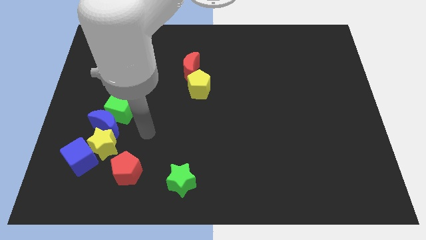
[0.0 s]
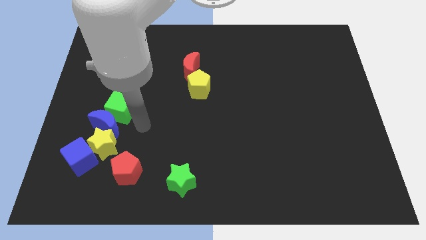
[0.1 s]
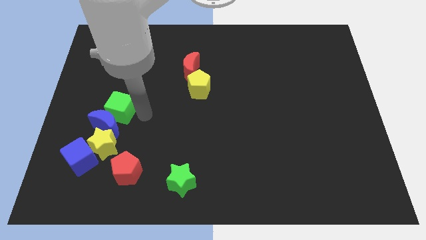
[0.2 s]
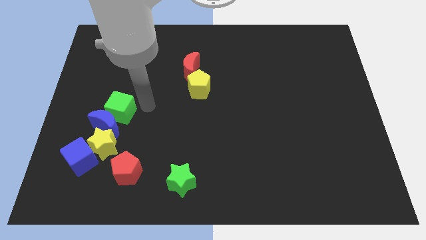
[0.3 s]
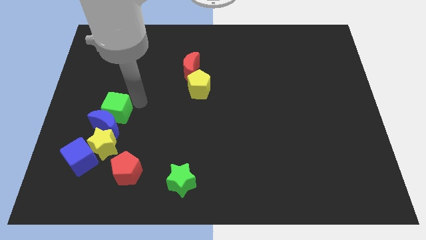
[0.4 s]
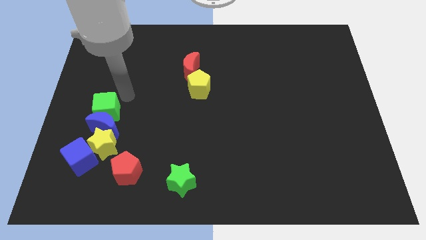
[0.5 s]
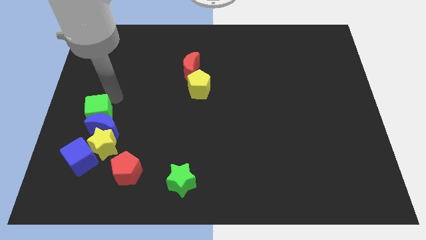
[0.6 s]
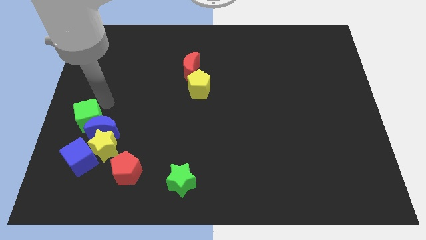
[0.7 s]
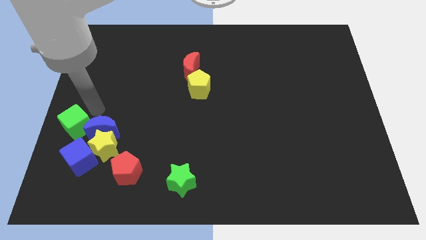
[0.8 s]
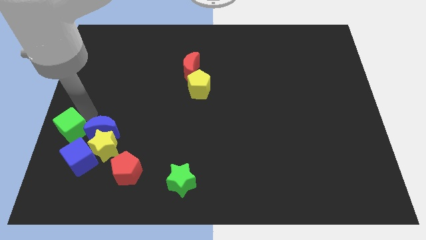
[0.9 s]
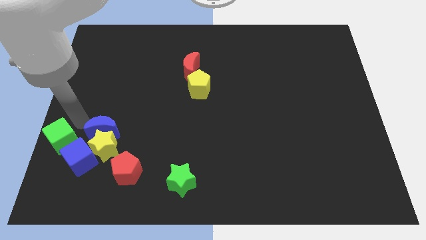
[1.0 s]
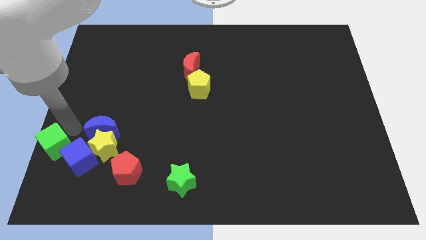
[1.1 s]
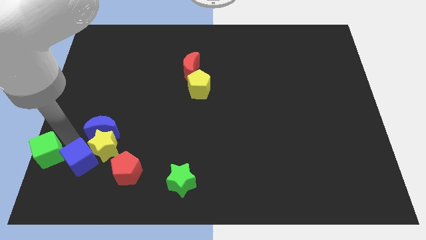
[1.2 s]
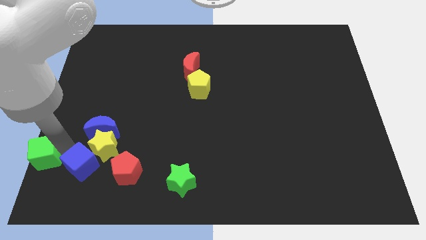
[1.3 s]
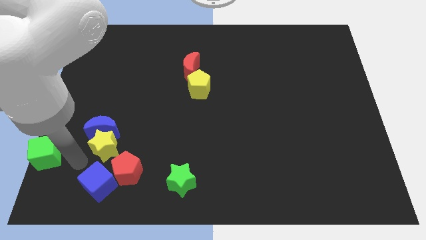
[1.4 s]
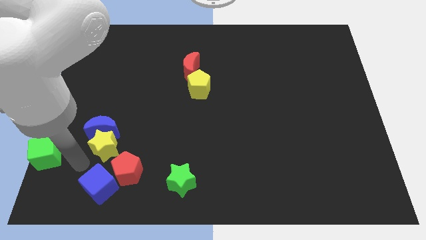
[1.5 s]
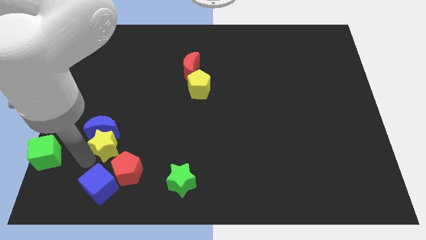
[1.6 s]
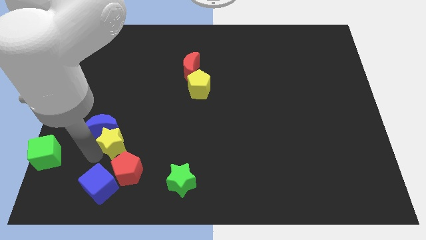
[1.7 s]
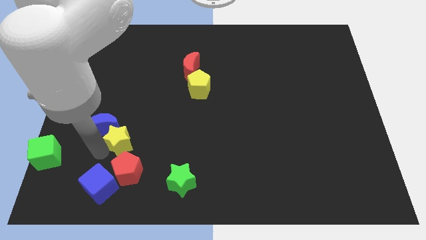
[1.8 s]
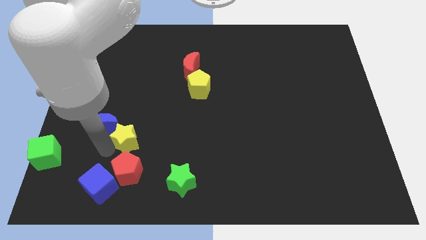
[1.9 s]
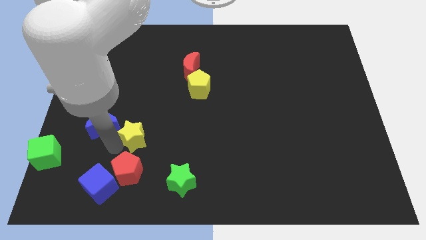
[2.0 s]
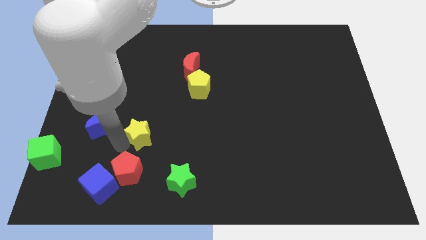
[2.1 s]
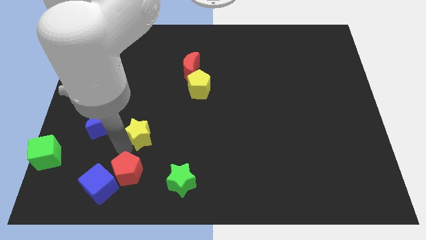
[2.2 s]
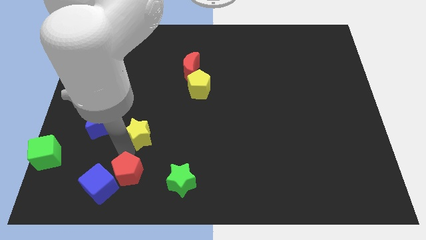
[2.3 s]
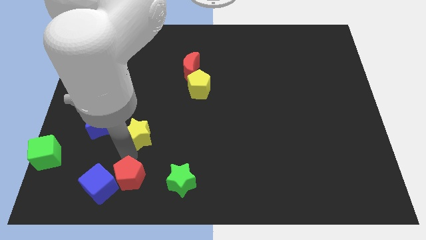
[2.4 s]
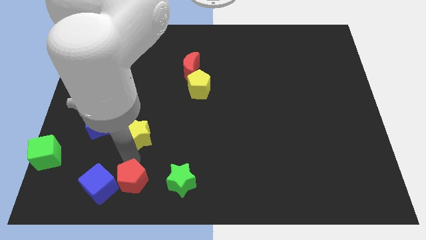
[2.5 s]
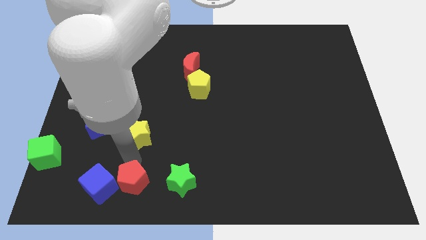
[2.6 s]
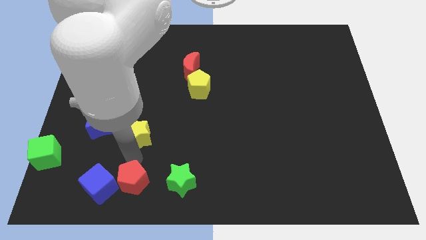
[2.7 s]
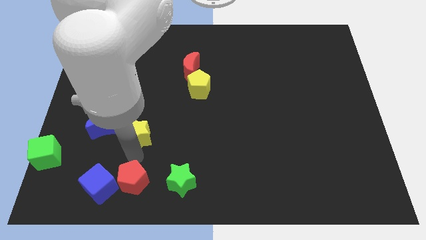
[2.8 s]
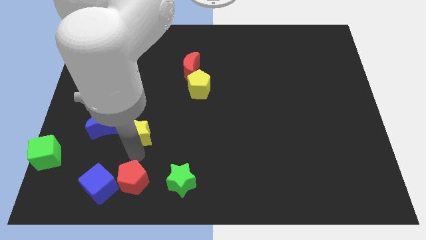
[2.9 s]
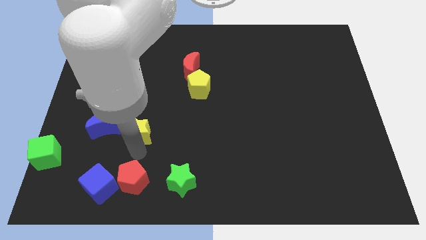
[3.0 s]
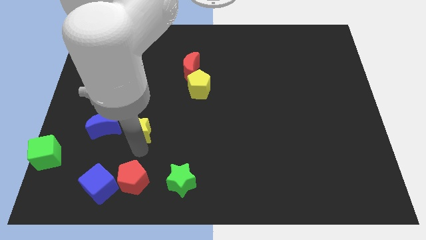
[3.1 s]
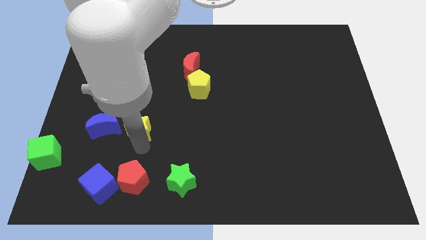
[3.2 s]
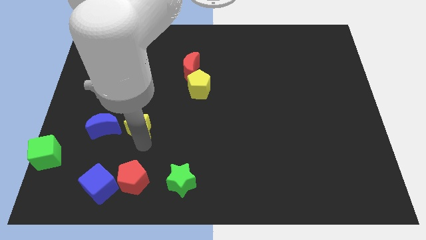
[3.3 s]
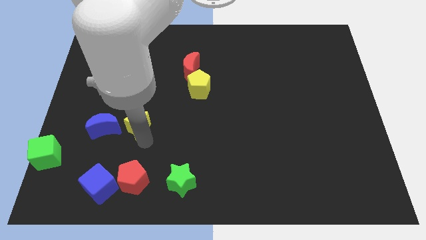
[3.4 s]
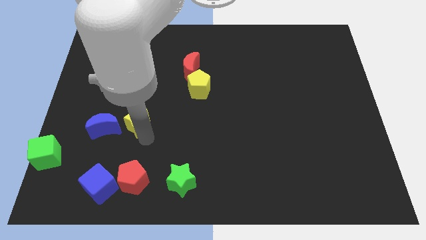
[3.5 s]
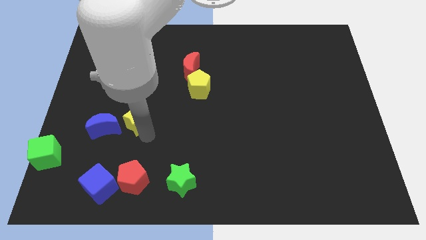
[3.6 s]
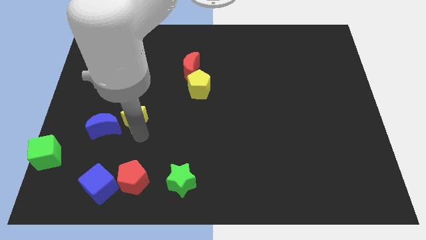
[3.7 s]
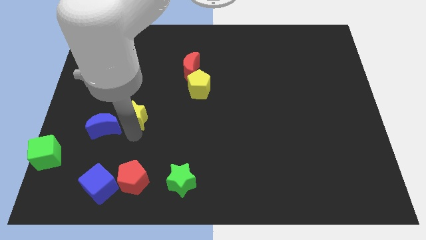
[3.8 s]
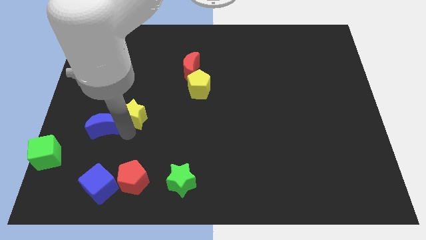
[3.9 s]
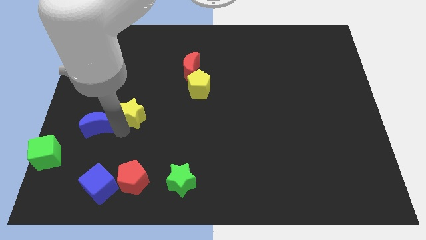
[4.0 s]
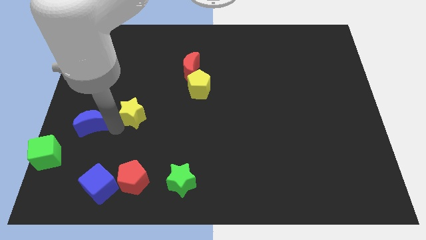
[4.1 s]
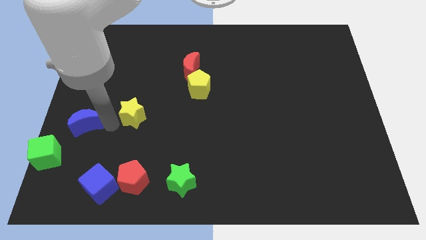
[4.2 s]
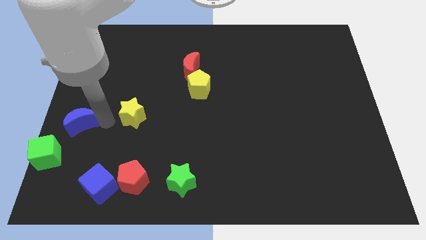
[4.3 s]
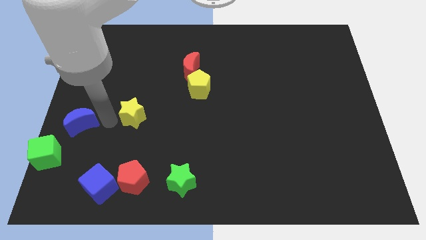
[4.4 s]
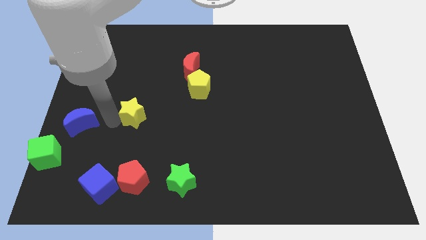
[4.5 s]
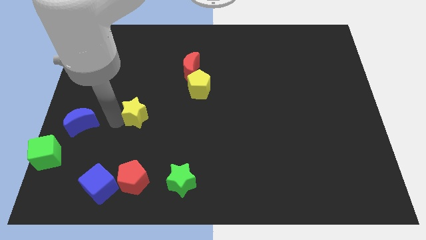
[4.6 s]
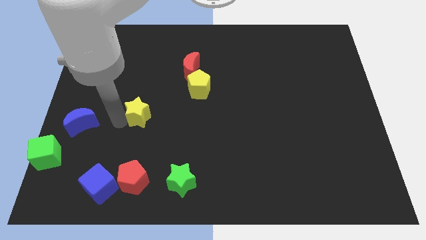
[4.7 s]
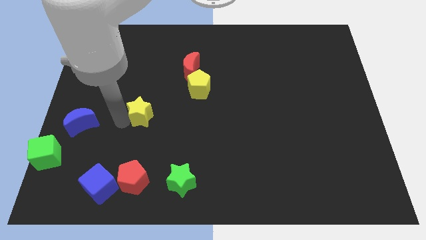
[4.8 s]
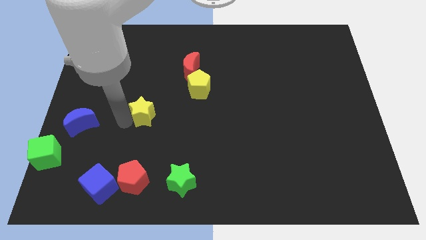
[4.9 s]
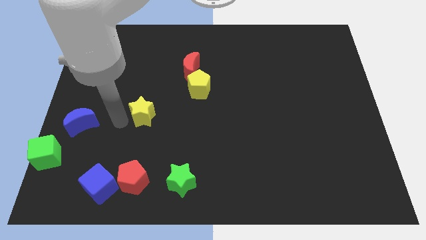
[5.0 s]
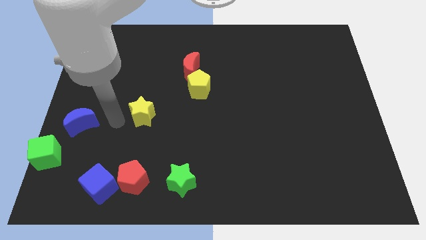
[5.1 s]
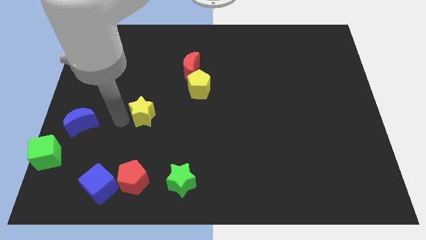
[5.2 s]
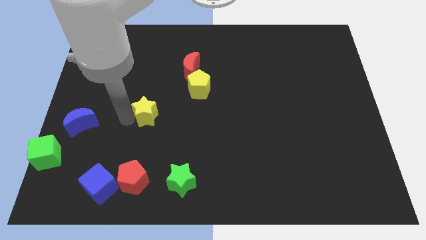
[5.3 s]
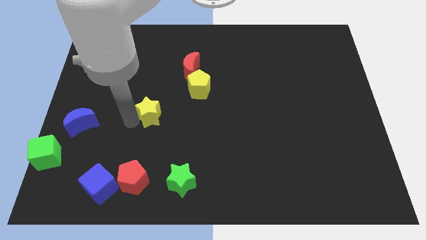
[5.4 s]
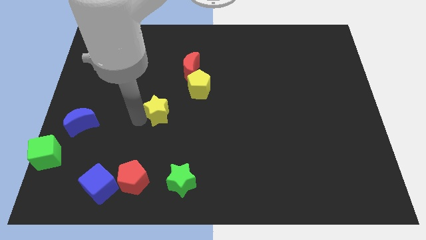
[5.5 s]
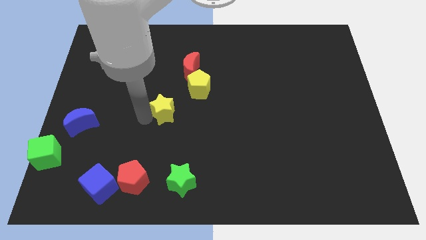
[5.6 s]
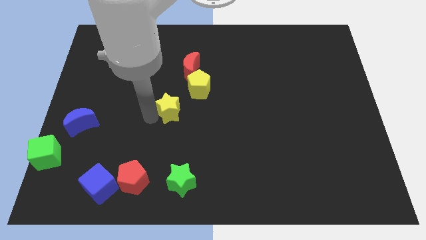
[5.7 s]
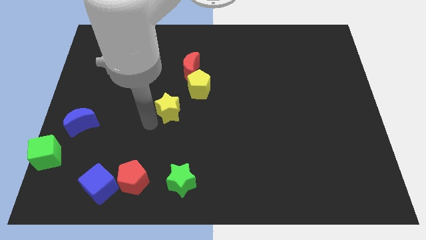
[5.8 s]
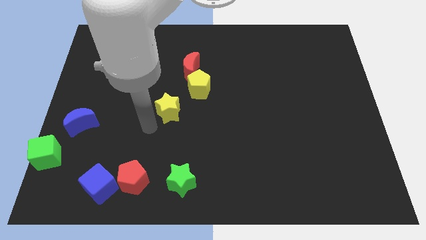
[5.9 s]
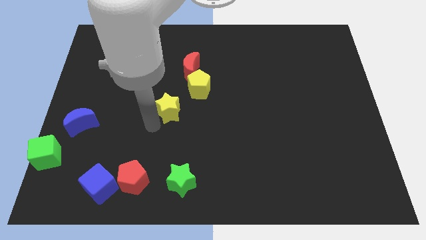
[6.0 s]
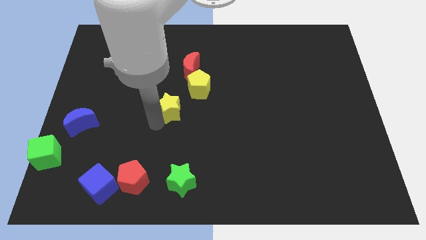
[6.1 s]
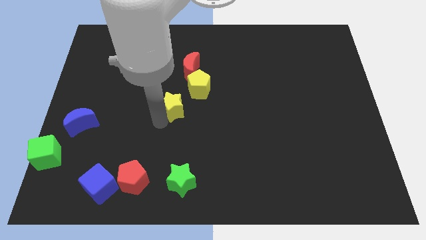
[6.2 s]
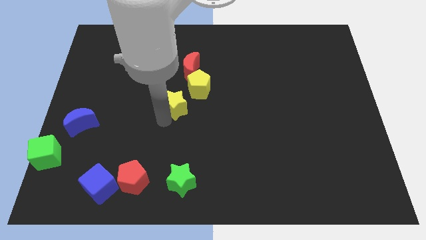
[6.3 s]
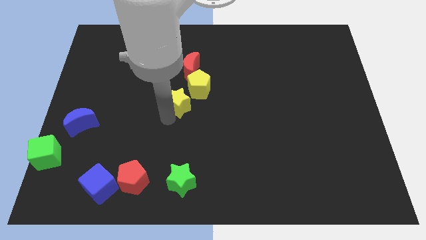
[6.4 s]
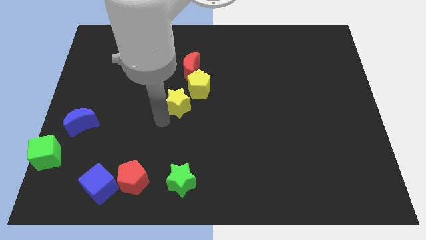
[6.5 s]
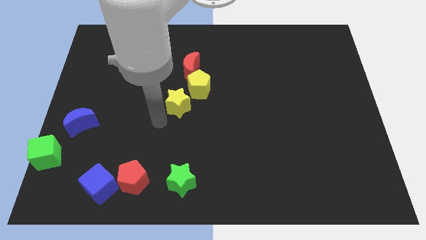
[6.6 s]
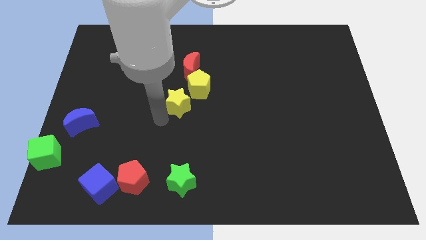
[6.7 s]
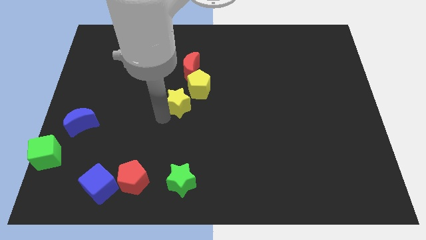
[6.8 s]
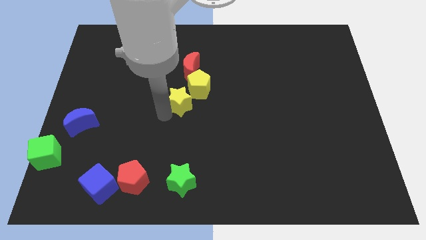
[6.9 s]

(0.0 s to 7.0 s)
move the yellow star next to the yellow pentagon

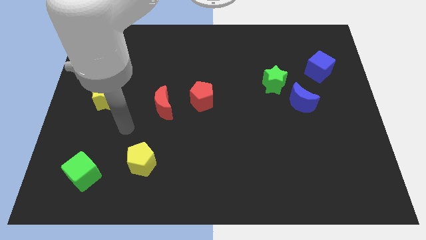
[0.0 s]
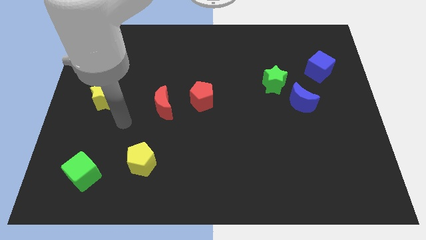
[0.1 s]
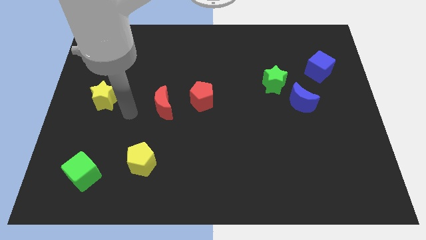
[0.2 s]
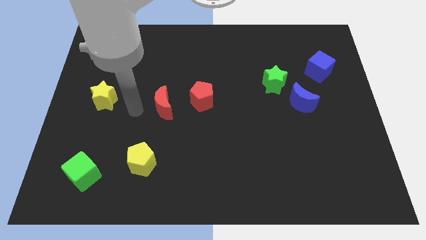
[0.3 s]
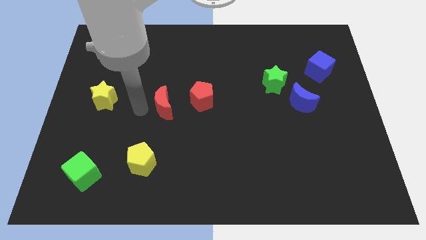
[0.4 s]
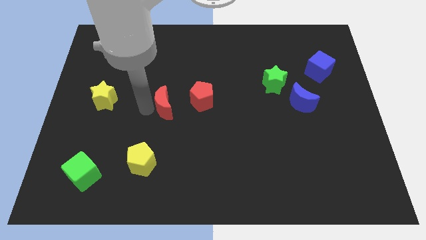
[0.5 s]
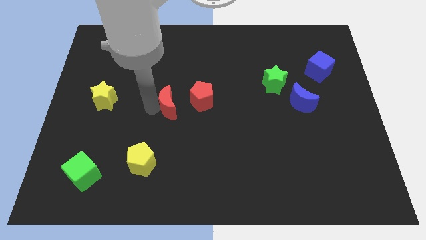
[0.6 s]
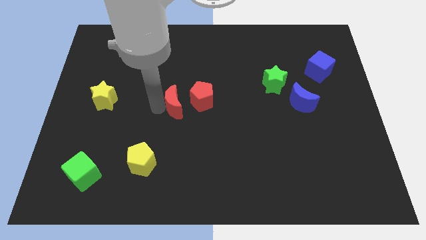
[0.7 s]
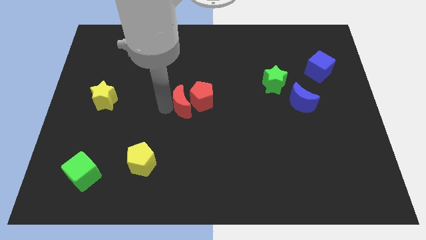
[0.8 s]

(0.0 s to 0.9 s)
put the red moon next to the red pentagon
